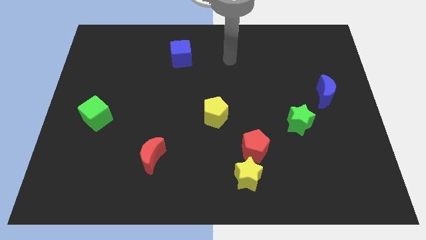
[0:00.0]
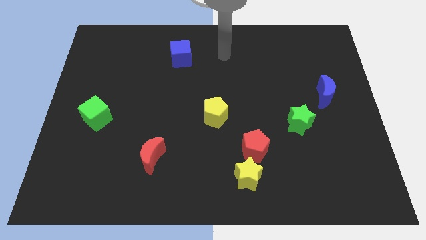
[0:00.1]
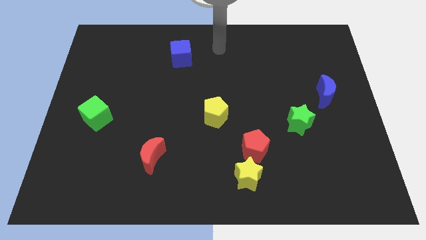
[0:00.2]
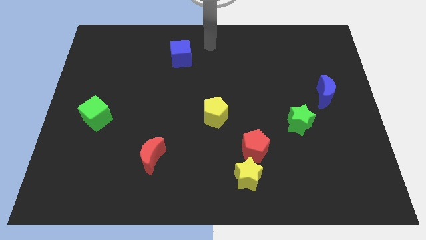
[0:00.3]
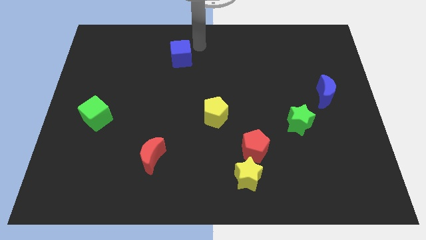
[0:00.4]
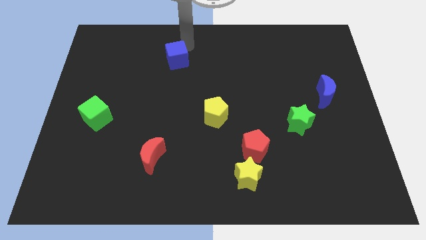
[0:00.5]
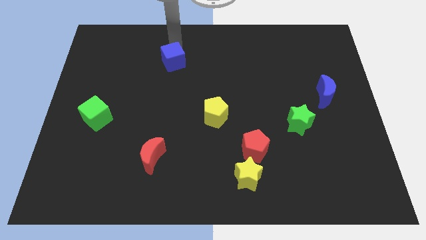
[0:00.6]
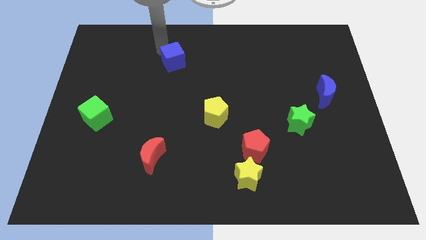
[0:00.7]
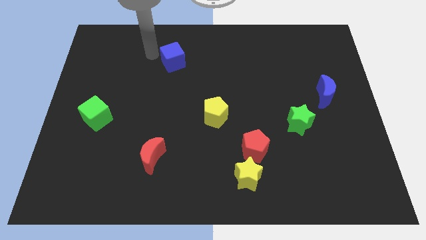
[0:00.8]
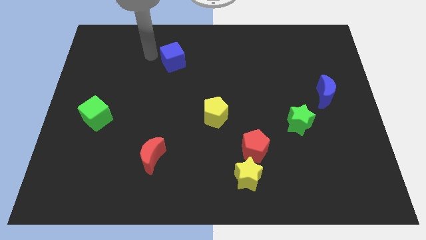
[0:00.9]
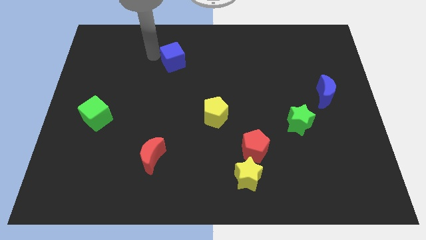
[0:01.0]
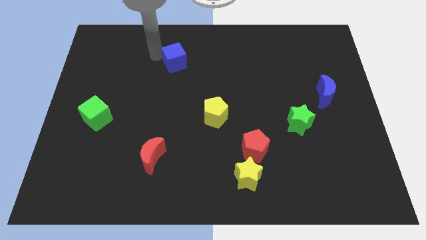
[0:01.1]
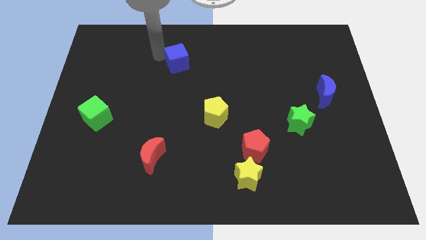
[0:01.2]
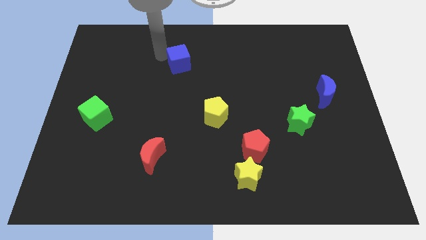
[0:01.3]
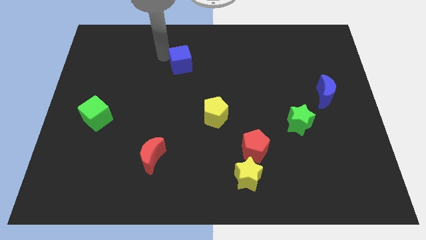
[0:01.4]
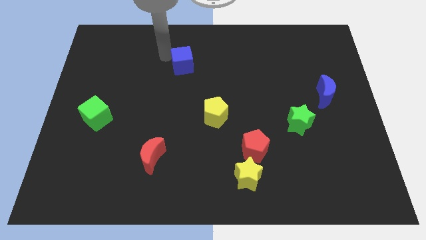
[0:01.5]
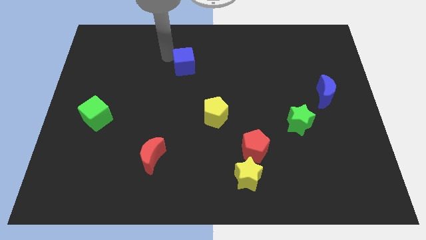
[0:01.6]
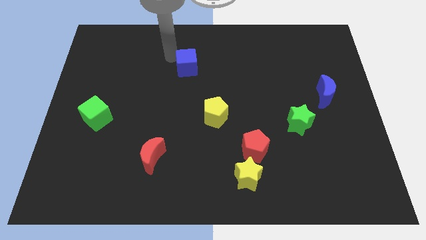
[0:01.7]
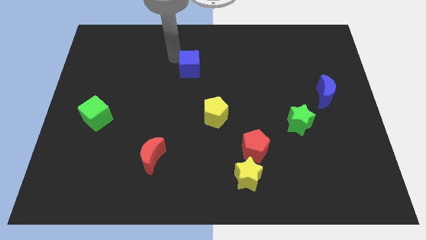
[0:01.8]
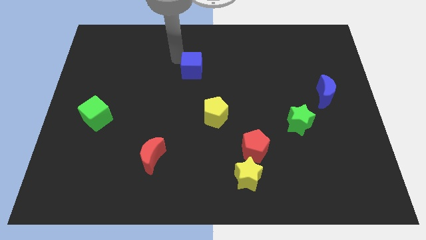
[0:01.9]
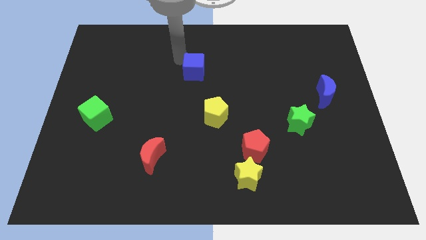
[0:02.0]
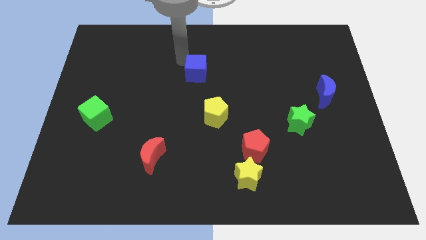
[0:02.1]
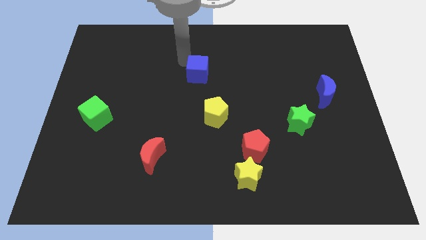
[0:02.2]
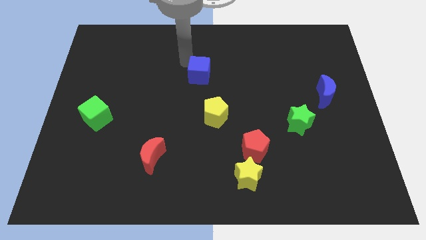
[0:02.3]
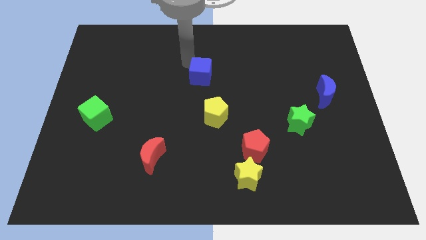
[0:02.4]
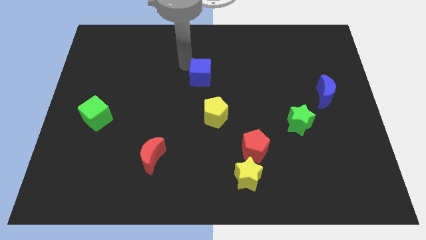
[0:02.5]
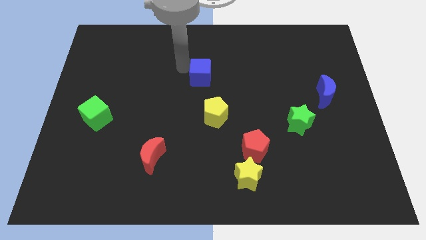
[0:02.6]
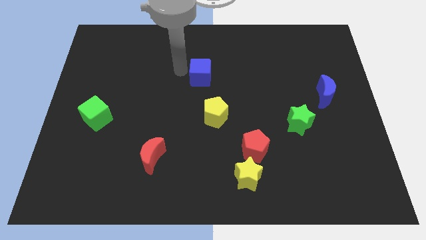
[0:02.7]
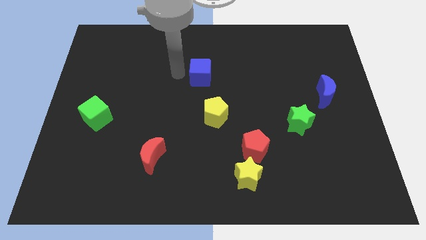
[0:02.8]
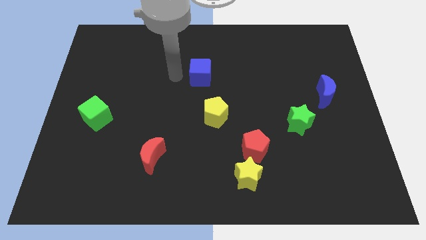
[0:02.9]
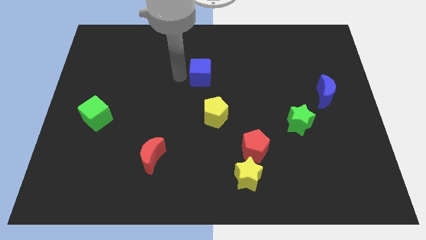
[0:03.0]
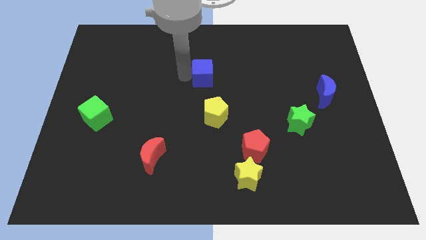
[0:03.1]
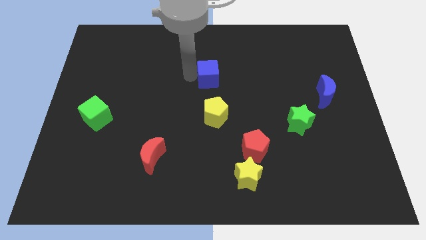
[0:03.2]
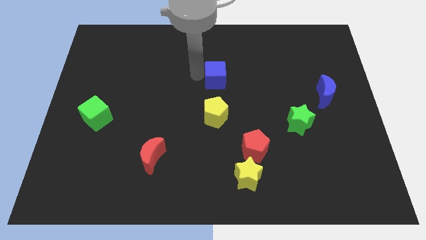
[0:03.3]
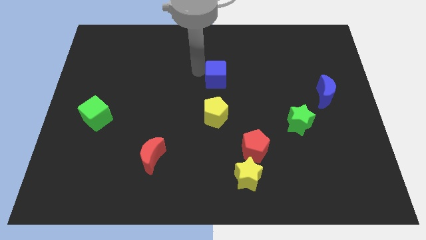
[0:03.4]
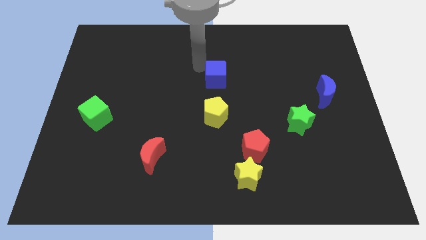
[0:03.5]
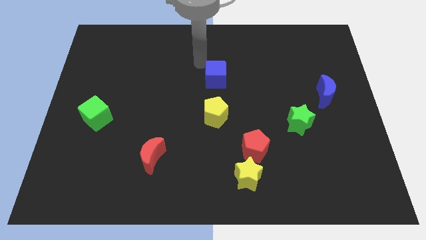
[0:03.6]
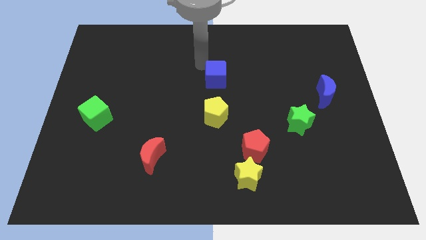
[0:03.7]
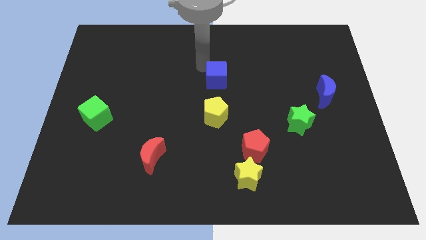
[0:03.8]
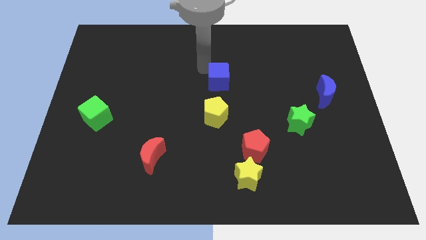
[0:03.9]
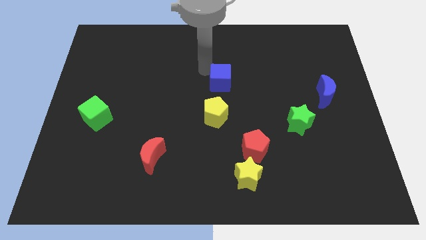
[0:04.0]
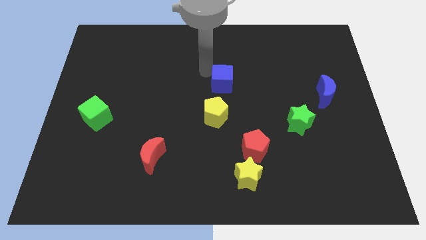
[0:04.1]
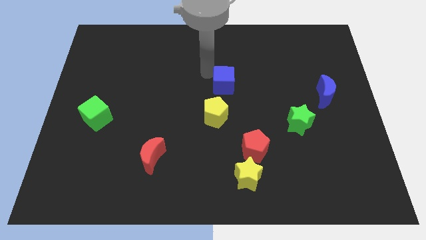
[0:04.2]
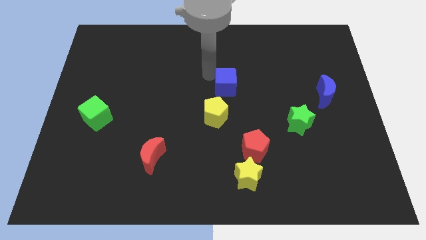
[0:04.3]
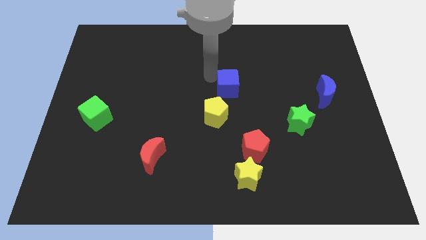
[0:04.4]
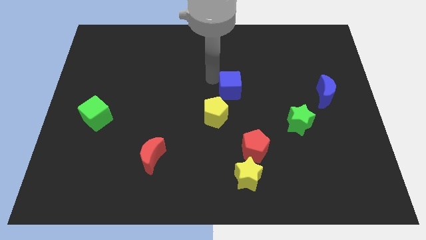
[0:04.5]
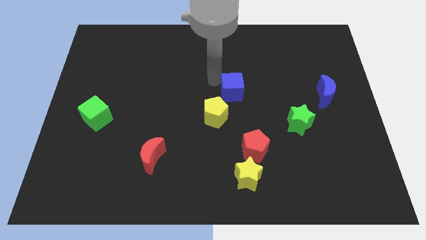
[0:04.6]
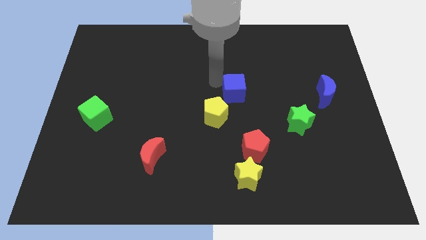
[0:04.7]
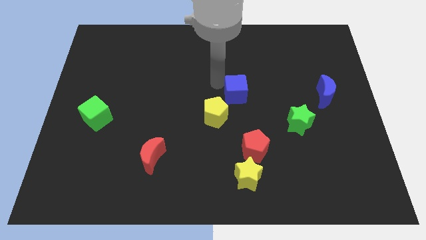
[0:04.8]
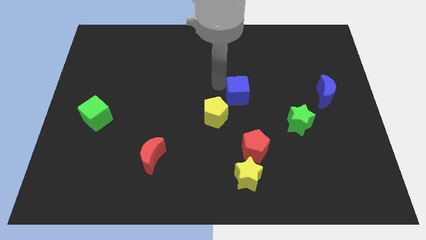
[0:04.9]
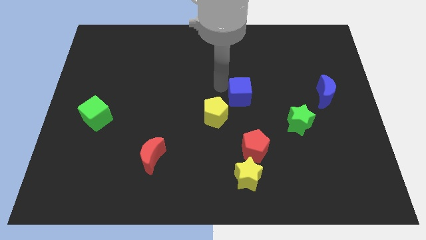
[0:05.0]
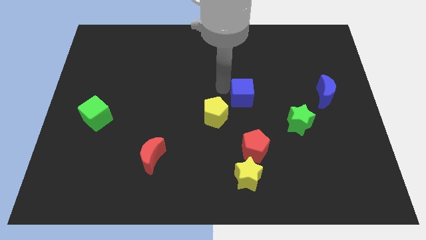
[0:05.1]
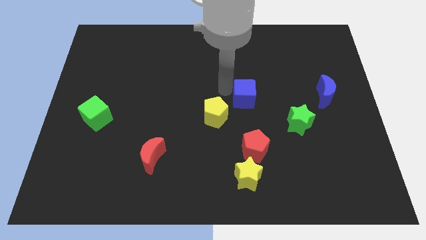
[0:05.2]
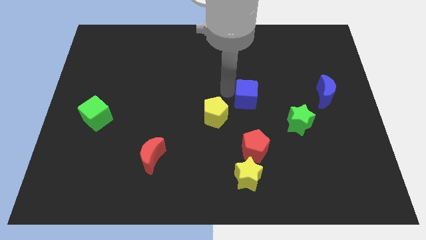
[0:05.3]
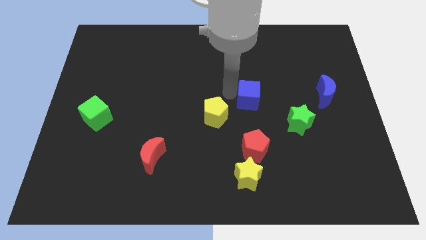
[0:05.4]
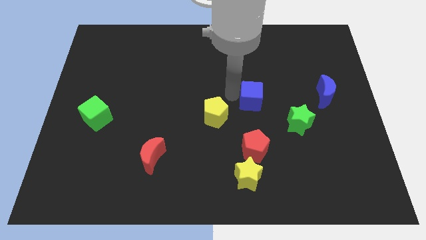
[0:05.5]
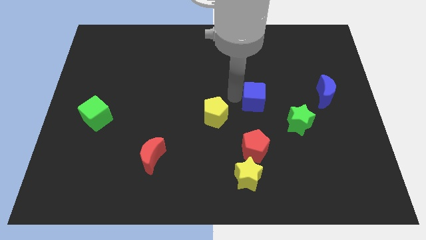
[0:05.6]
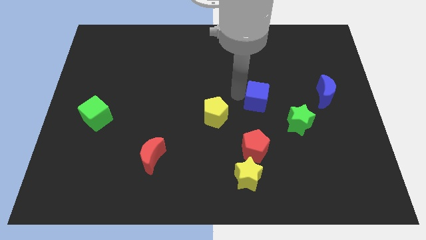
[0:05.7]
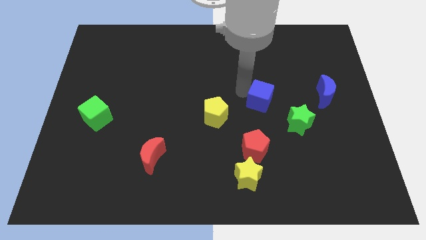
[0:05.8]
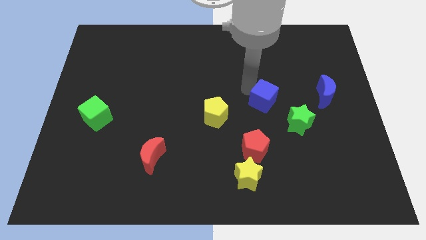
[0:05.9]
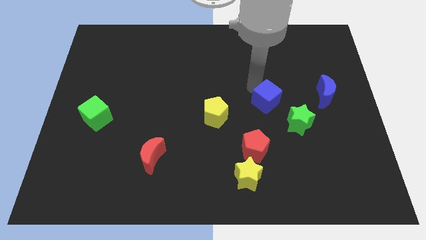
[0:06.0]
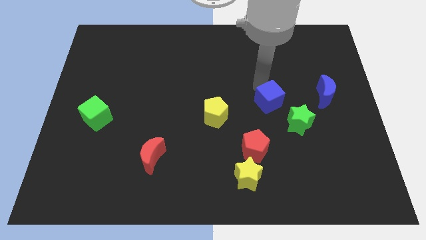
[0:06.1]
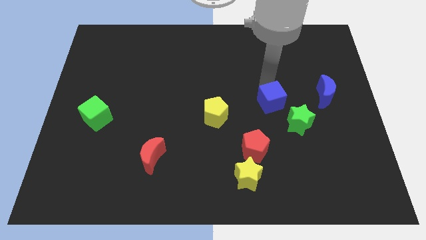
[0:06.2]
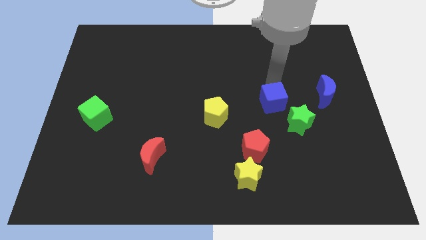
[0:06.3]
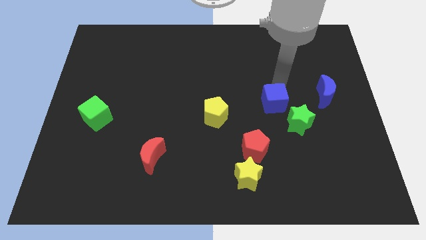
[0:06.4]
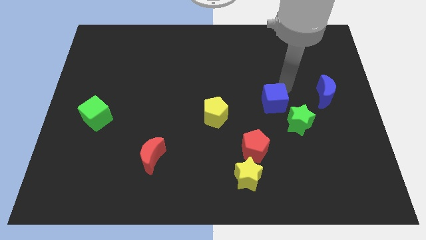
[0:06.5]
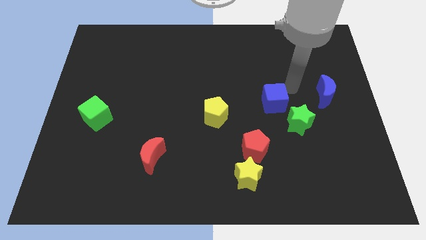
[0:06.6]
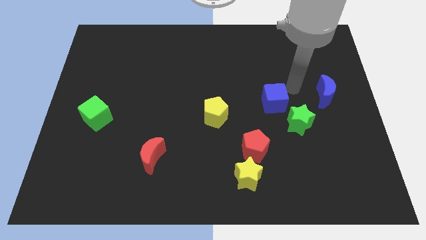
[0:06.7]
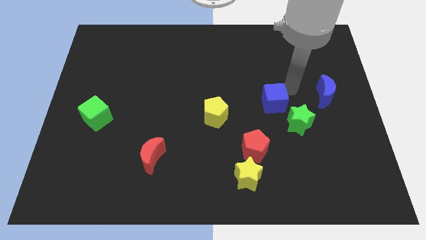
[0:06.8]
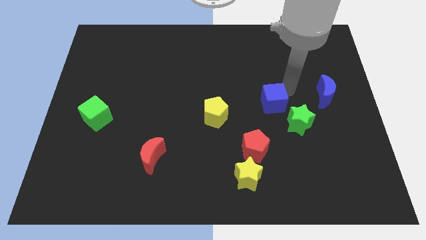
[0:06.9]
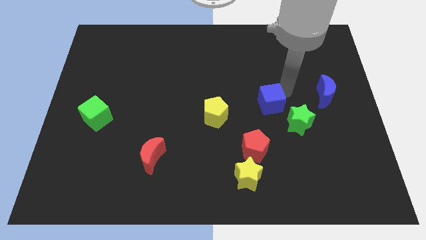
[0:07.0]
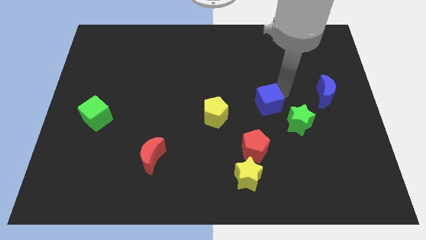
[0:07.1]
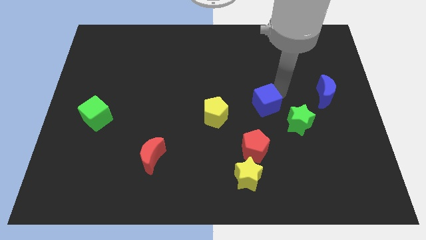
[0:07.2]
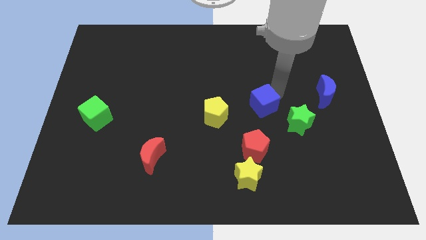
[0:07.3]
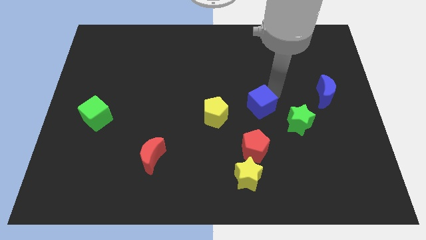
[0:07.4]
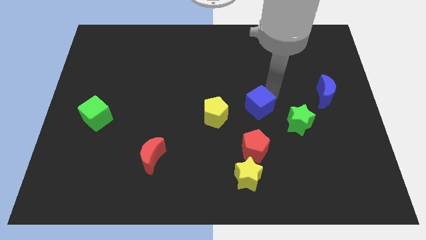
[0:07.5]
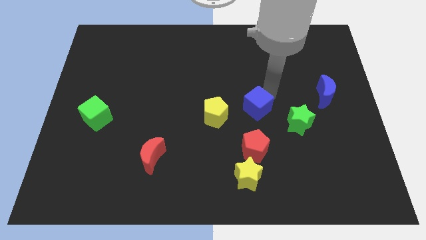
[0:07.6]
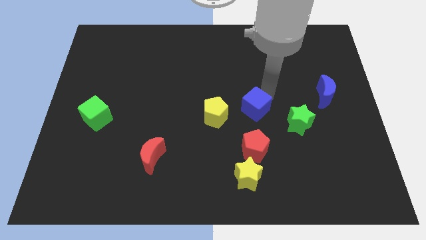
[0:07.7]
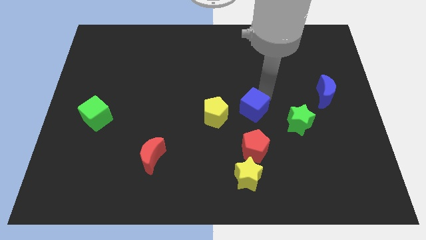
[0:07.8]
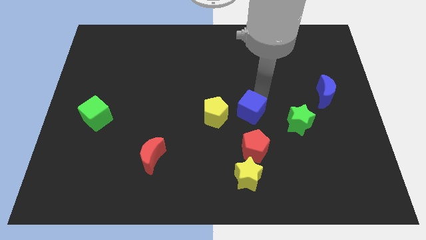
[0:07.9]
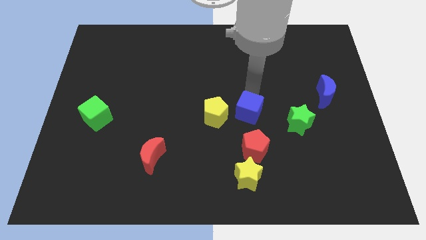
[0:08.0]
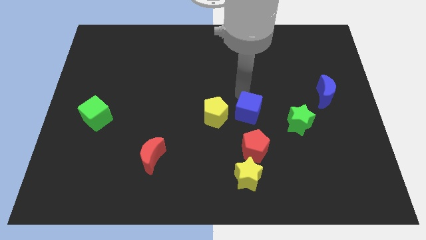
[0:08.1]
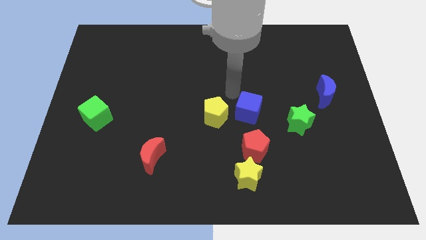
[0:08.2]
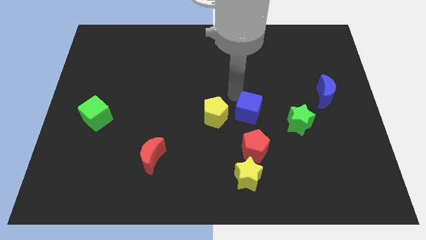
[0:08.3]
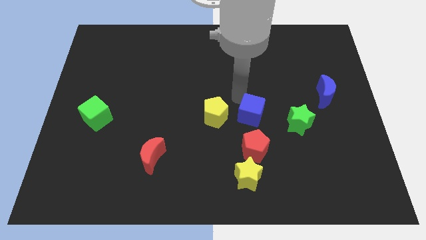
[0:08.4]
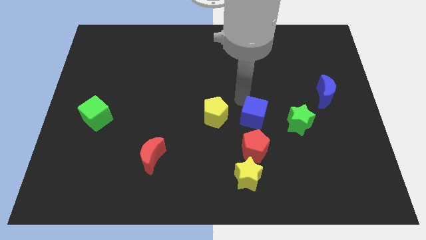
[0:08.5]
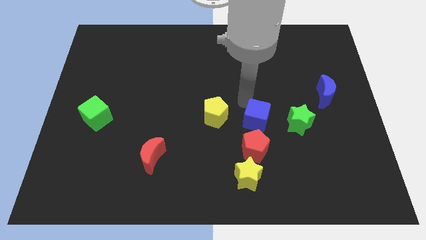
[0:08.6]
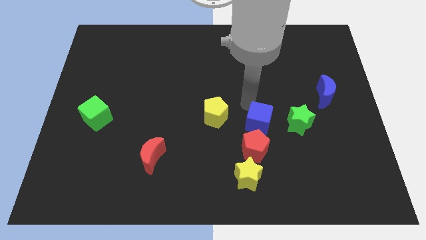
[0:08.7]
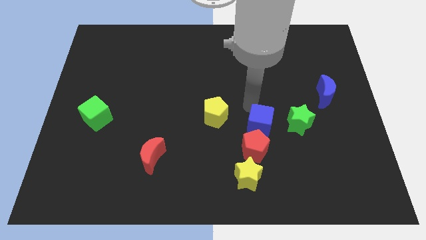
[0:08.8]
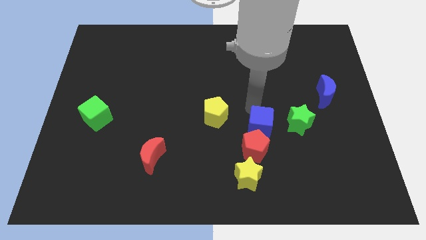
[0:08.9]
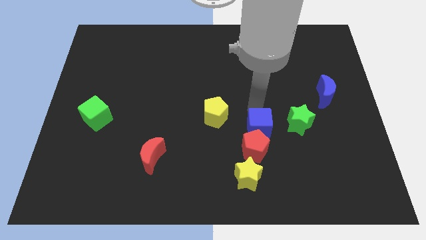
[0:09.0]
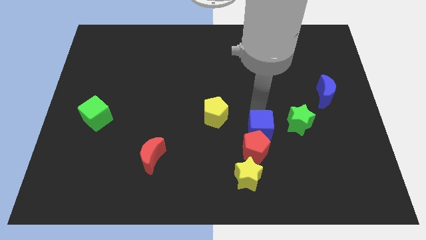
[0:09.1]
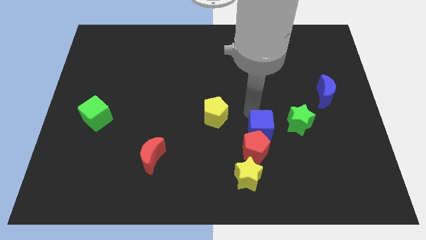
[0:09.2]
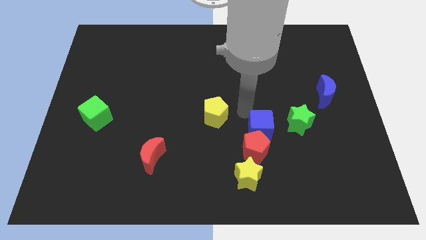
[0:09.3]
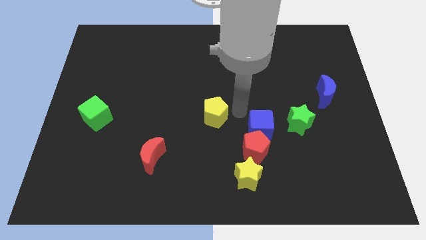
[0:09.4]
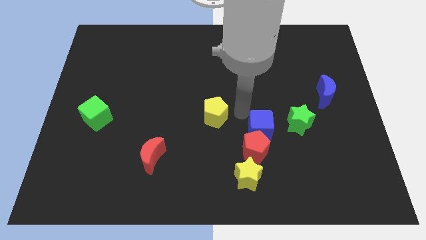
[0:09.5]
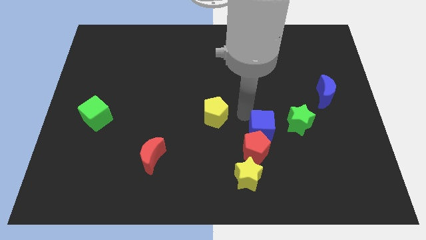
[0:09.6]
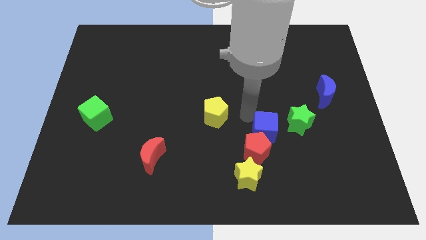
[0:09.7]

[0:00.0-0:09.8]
push the blue cube diagonally down and to the left of the green star
